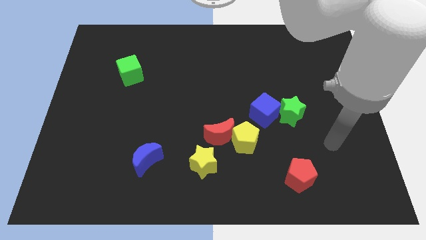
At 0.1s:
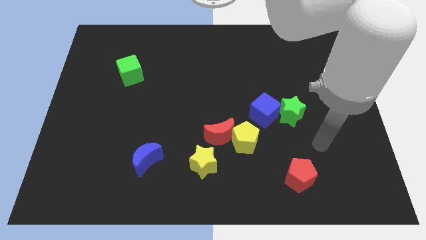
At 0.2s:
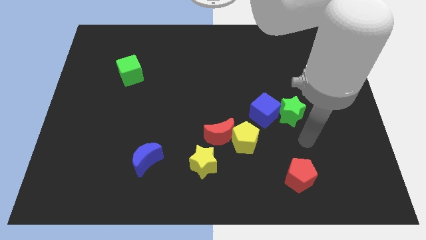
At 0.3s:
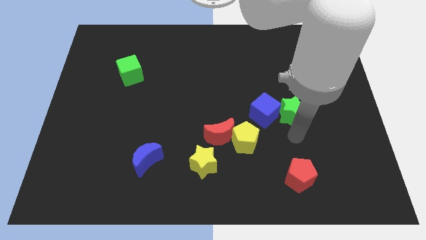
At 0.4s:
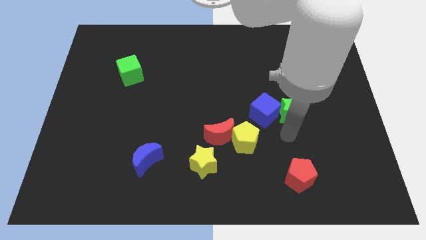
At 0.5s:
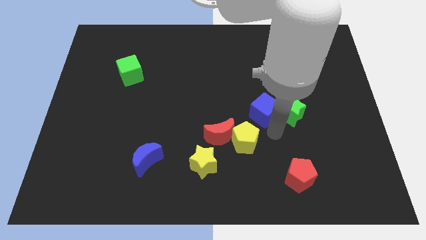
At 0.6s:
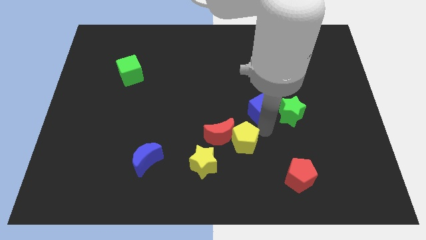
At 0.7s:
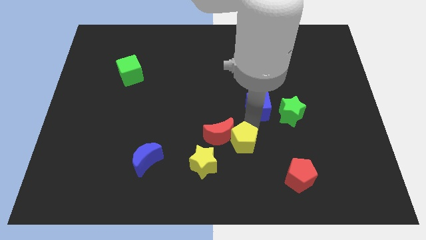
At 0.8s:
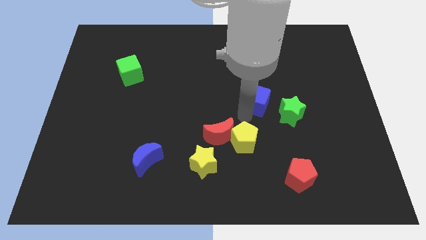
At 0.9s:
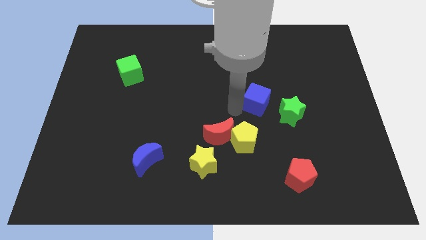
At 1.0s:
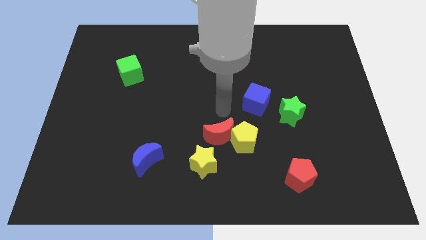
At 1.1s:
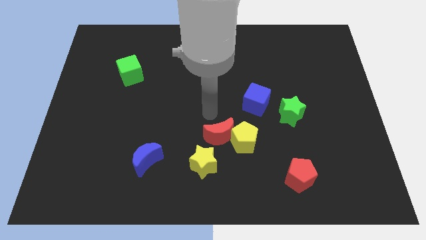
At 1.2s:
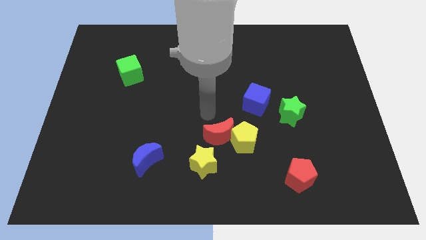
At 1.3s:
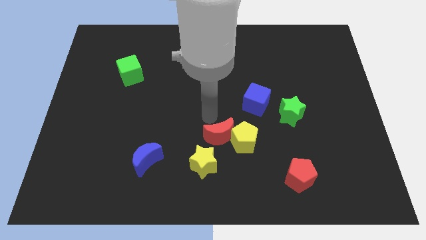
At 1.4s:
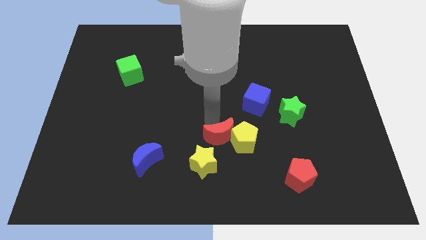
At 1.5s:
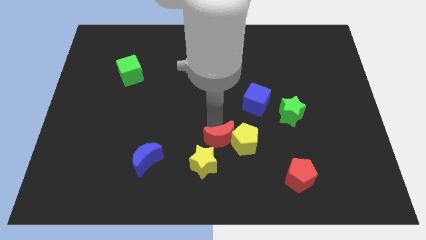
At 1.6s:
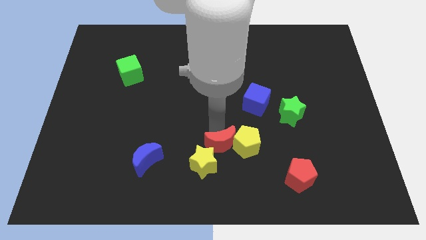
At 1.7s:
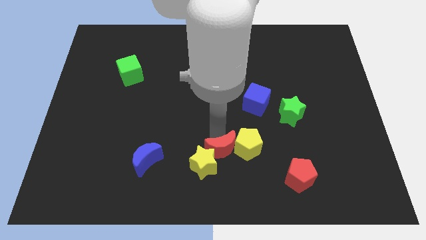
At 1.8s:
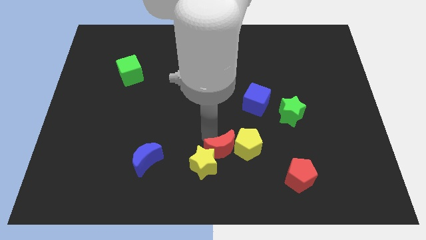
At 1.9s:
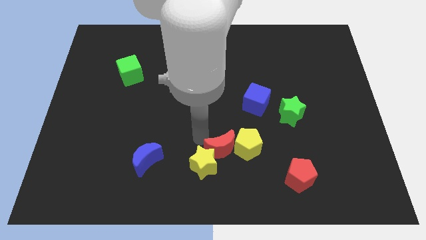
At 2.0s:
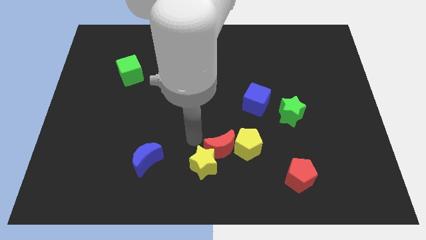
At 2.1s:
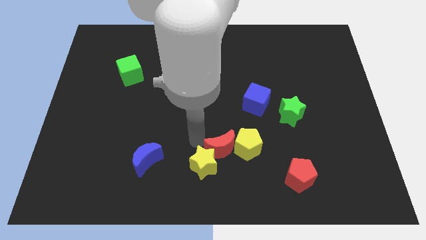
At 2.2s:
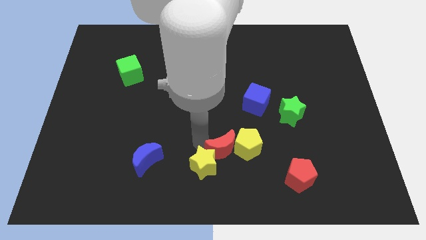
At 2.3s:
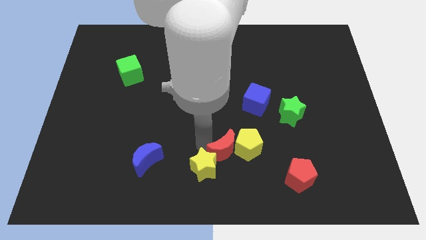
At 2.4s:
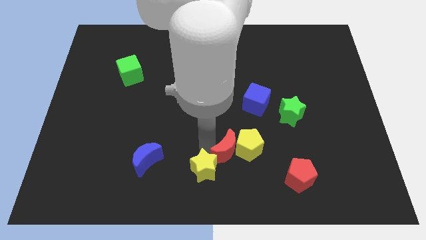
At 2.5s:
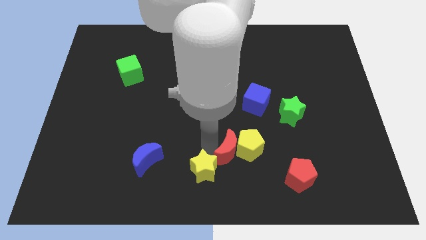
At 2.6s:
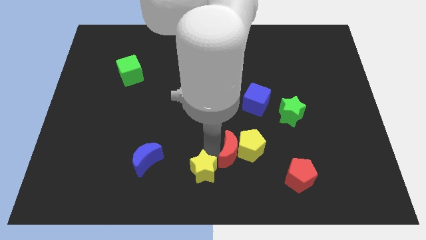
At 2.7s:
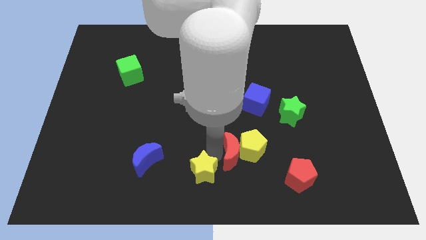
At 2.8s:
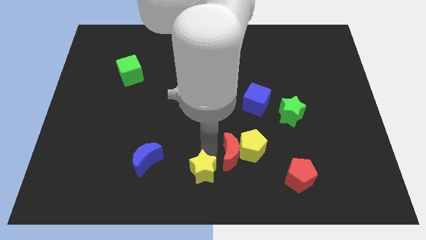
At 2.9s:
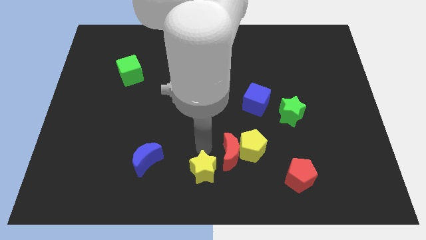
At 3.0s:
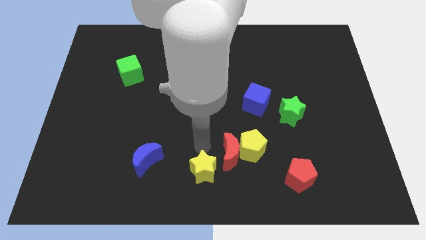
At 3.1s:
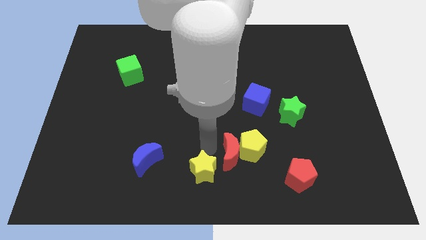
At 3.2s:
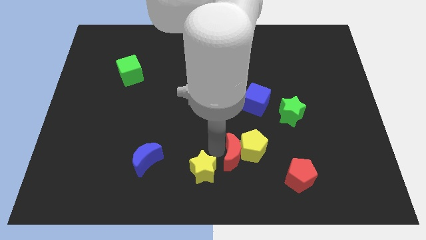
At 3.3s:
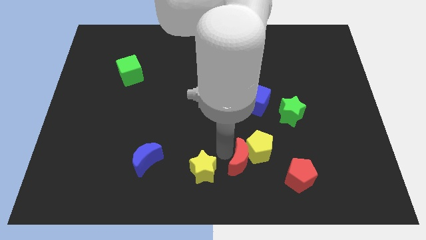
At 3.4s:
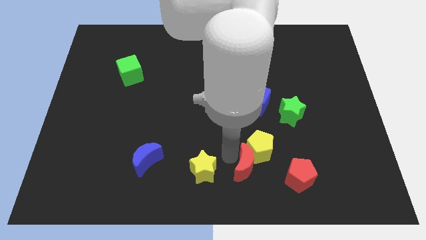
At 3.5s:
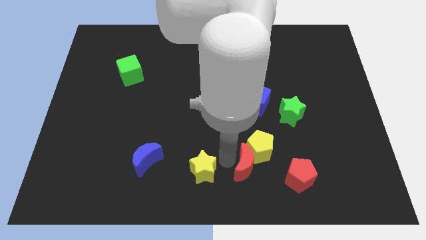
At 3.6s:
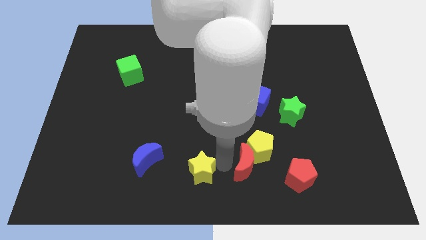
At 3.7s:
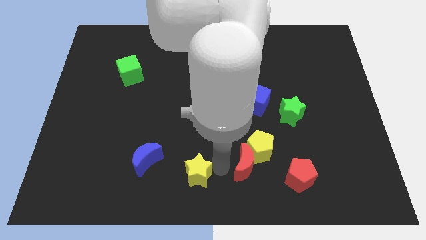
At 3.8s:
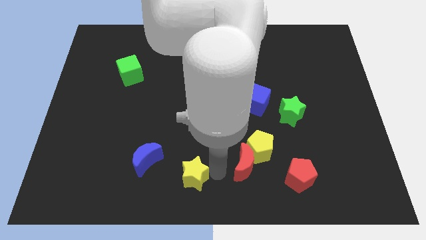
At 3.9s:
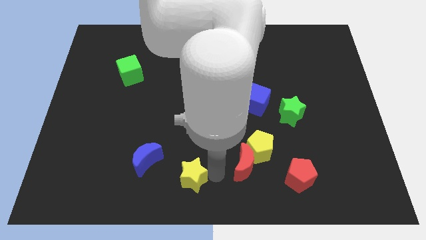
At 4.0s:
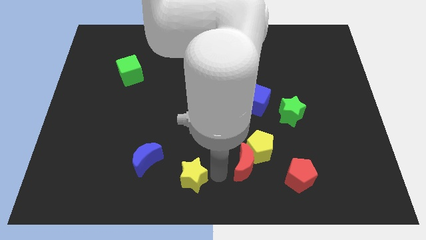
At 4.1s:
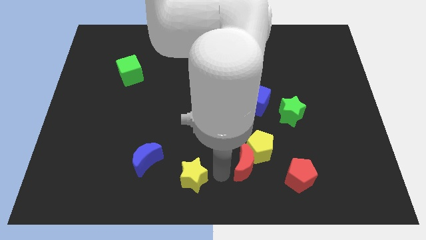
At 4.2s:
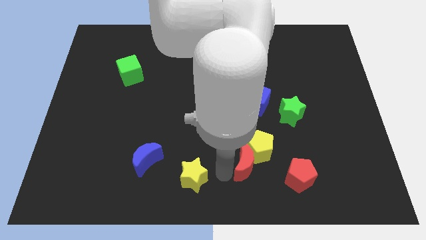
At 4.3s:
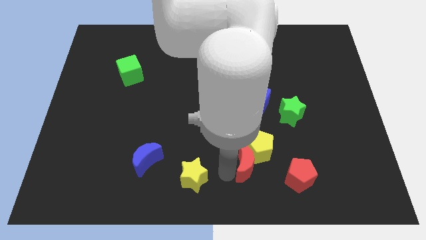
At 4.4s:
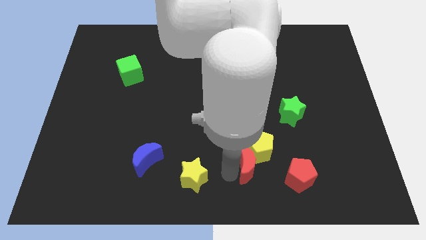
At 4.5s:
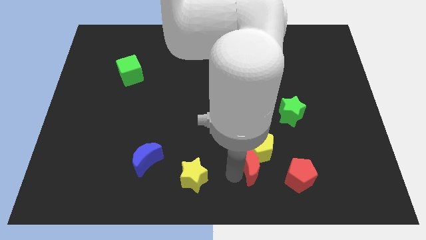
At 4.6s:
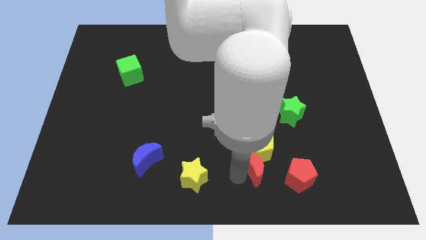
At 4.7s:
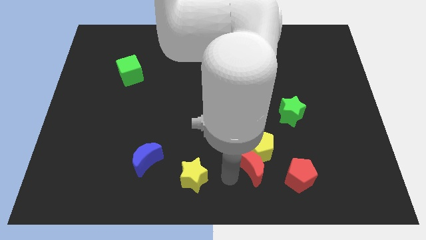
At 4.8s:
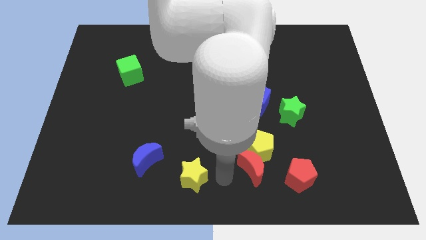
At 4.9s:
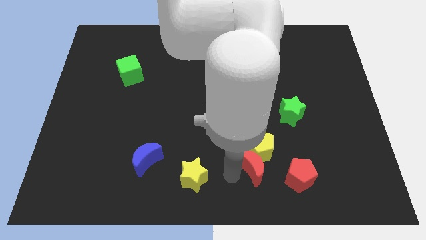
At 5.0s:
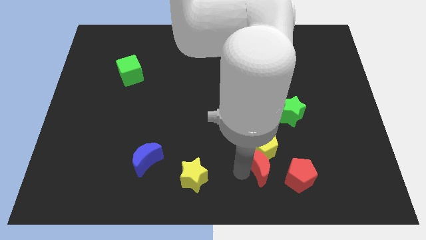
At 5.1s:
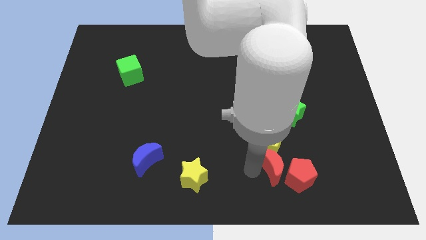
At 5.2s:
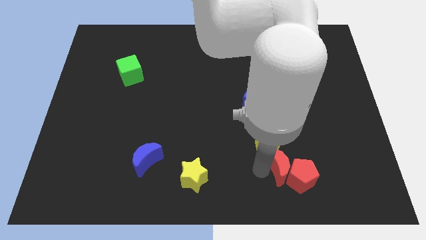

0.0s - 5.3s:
push the red moon to the bottom of the green star
